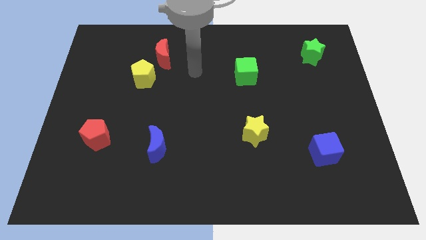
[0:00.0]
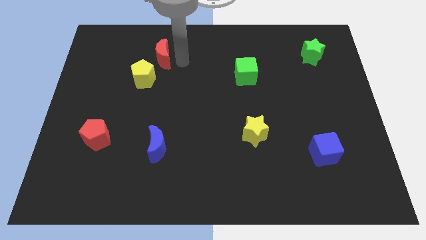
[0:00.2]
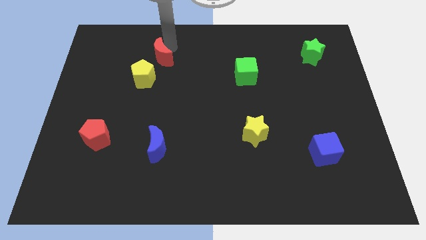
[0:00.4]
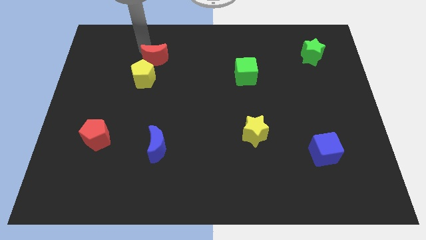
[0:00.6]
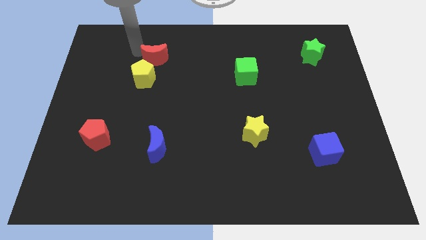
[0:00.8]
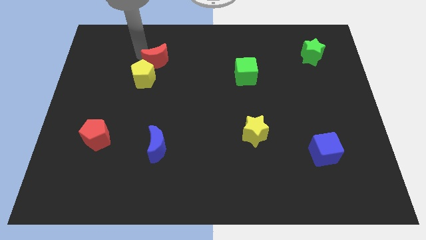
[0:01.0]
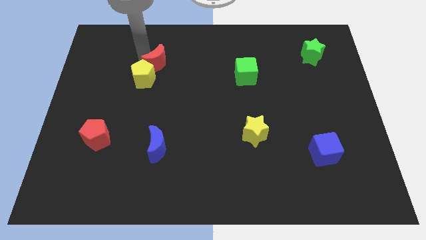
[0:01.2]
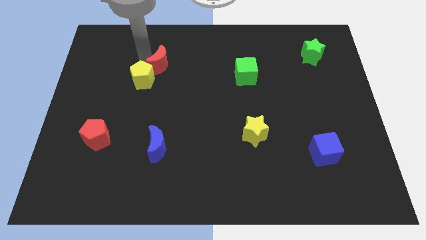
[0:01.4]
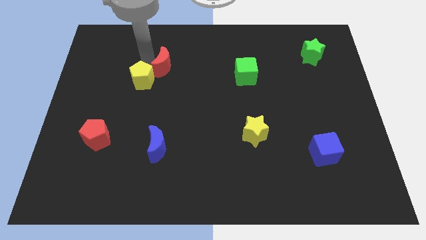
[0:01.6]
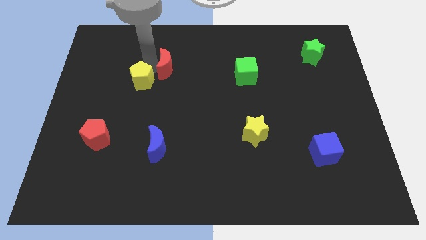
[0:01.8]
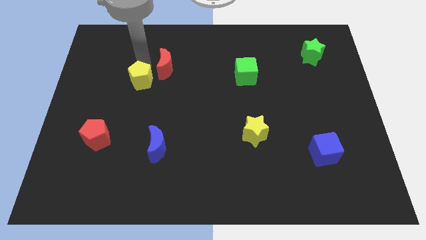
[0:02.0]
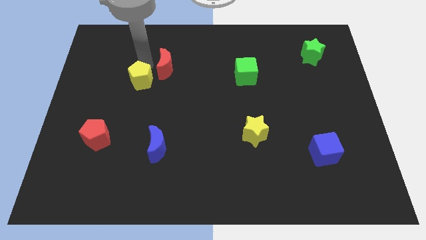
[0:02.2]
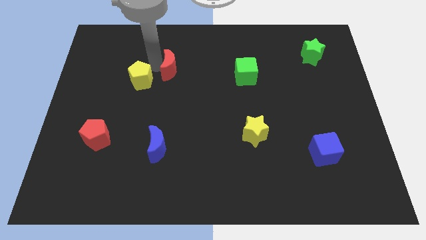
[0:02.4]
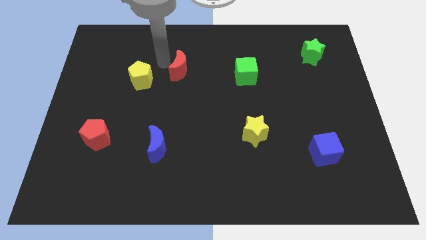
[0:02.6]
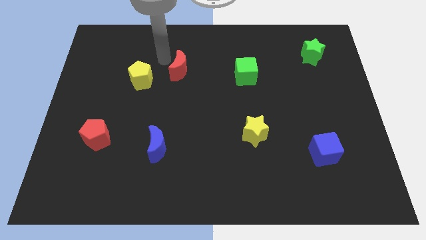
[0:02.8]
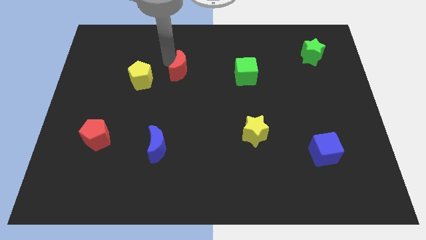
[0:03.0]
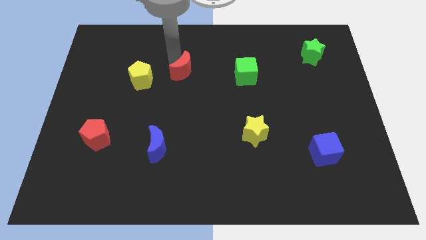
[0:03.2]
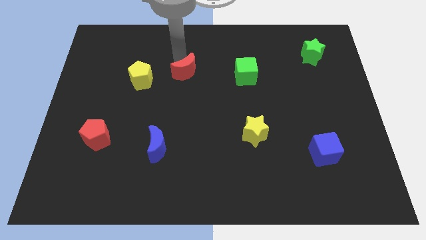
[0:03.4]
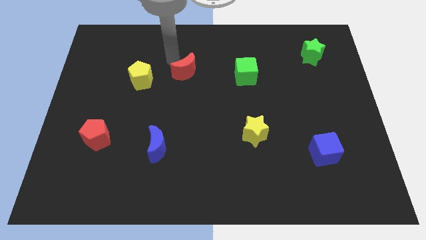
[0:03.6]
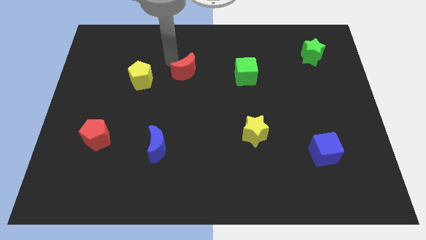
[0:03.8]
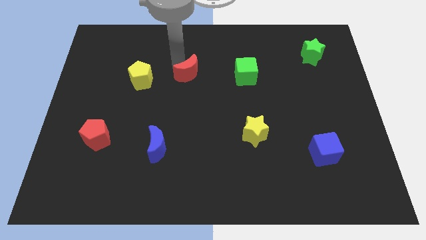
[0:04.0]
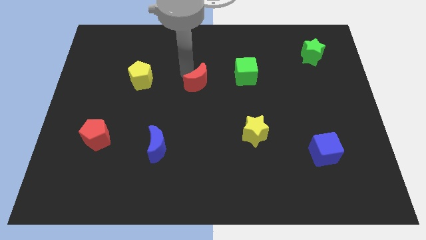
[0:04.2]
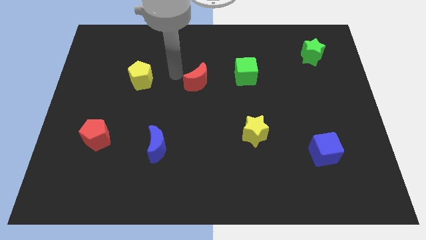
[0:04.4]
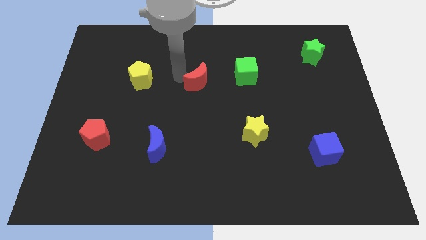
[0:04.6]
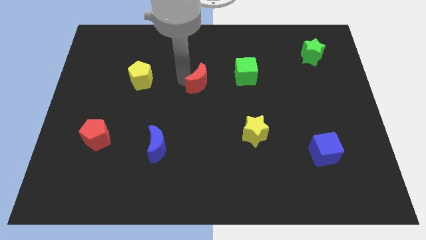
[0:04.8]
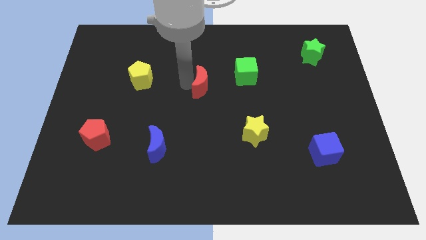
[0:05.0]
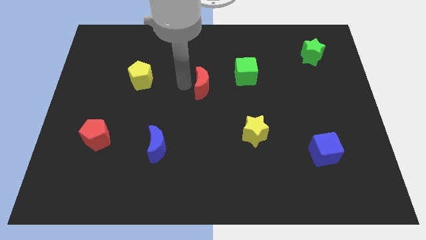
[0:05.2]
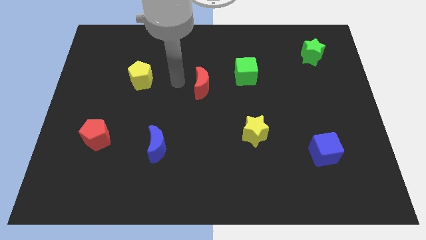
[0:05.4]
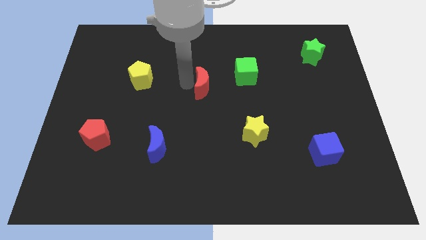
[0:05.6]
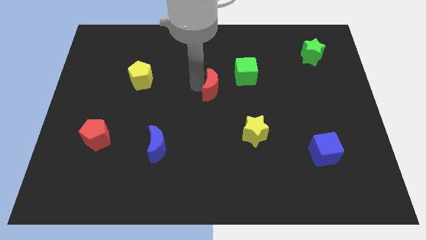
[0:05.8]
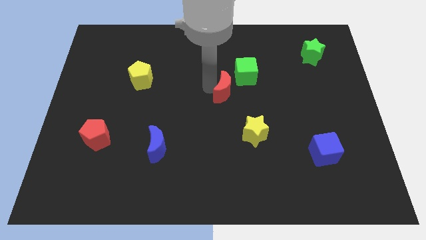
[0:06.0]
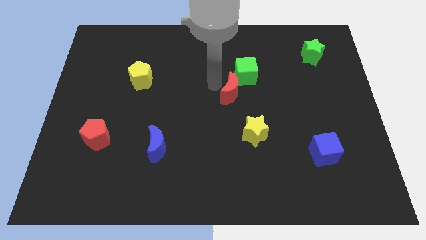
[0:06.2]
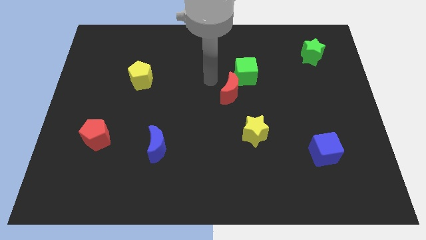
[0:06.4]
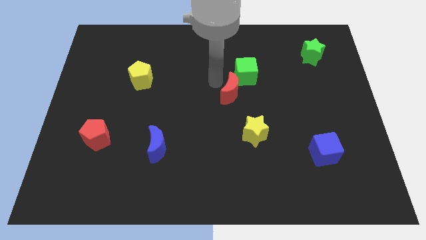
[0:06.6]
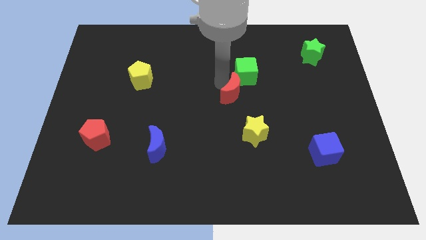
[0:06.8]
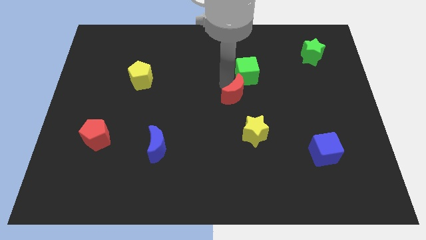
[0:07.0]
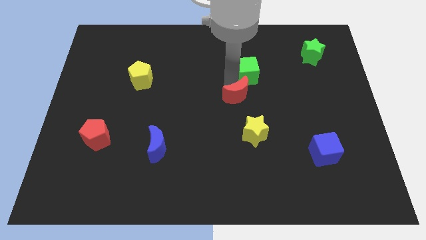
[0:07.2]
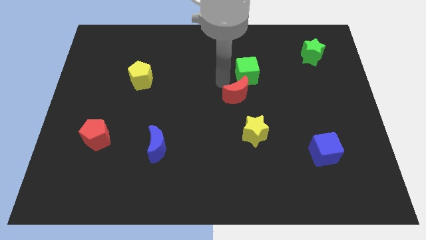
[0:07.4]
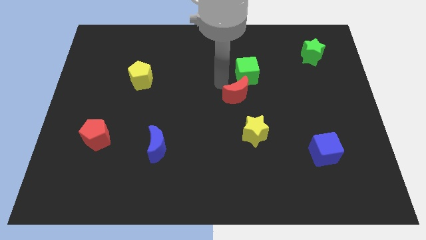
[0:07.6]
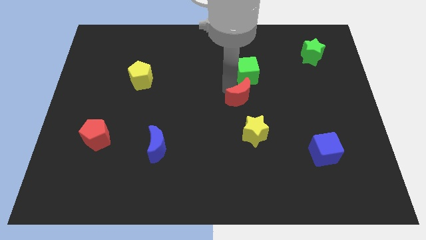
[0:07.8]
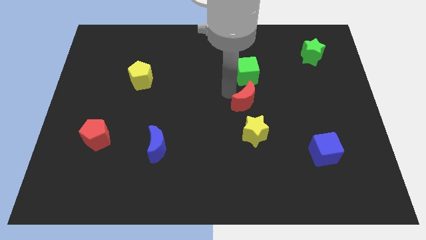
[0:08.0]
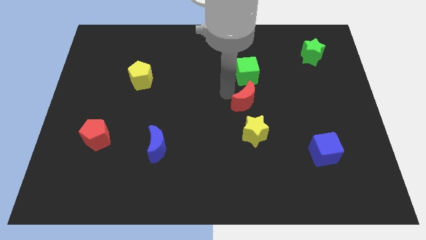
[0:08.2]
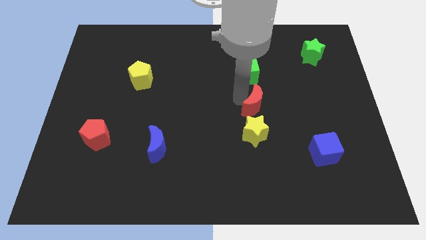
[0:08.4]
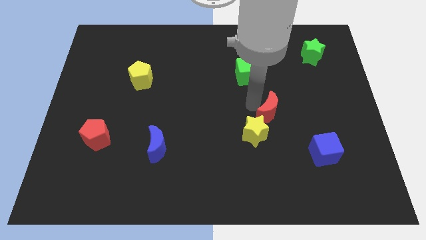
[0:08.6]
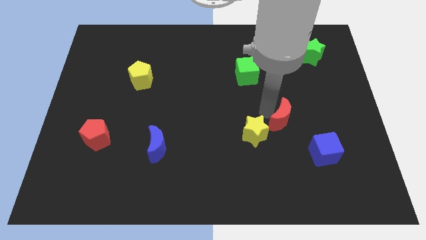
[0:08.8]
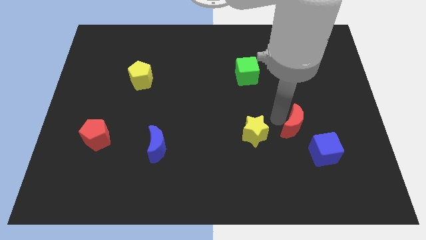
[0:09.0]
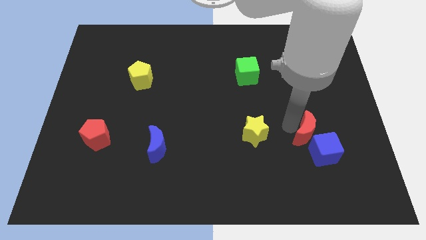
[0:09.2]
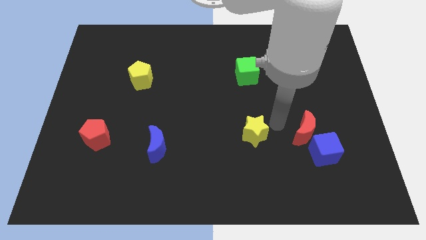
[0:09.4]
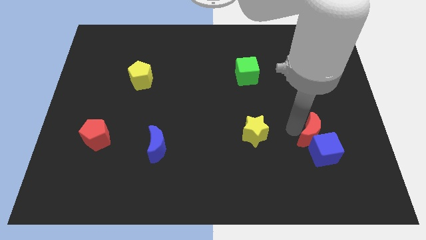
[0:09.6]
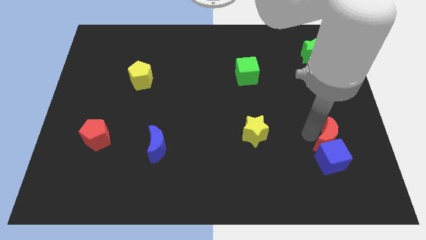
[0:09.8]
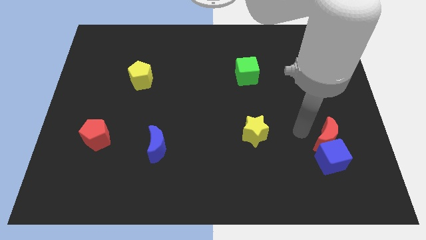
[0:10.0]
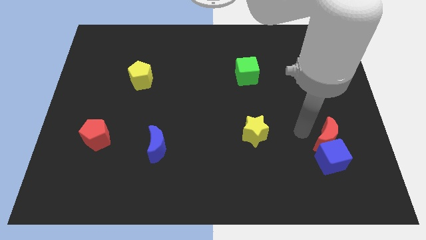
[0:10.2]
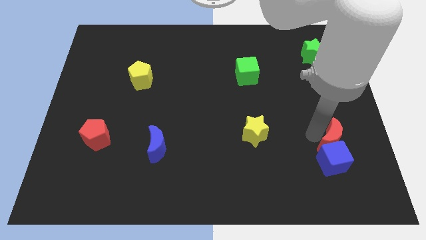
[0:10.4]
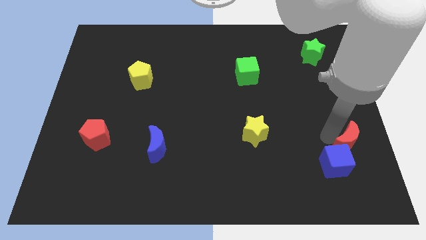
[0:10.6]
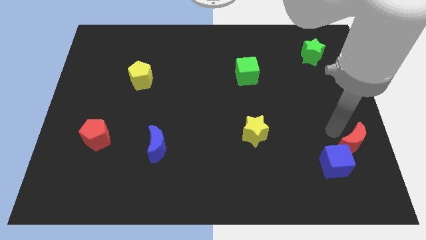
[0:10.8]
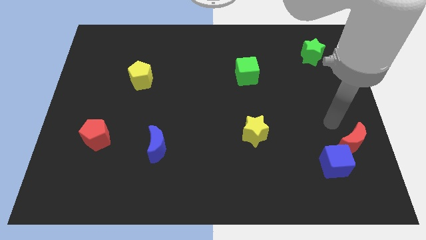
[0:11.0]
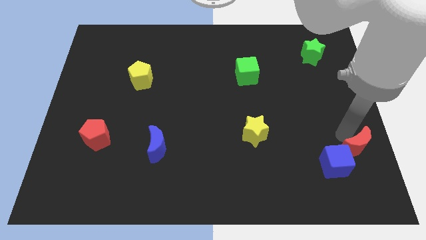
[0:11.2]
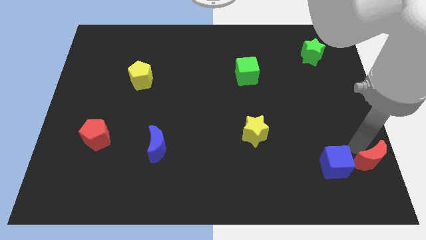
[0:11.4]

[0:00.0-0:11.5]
put the red moon to the lower right corner

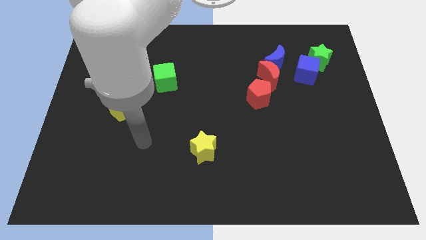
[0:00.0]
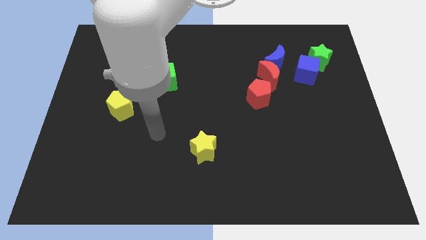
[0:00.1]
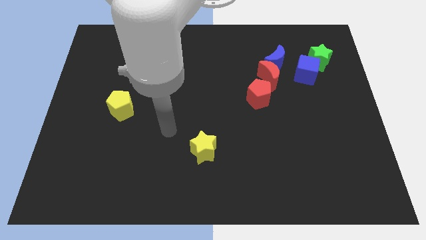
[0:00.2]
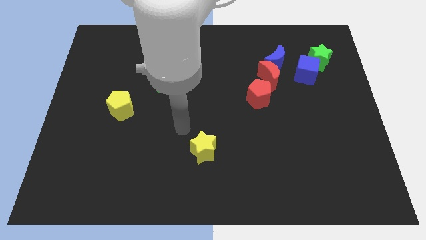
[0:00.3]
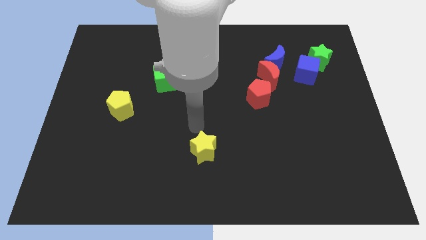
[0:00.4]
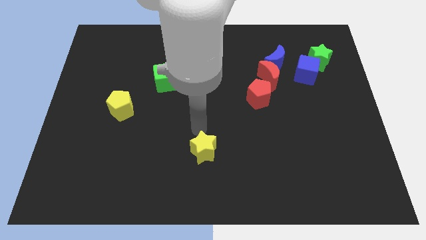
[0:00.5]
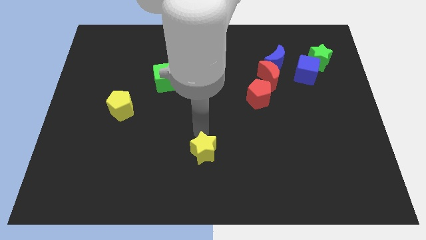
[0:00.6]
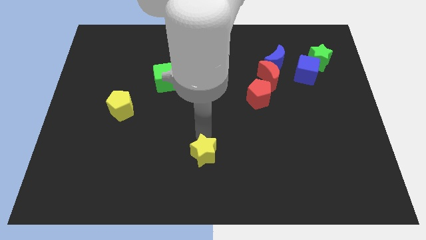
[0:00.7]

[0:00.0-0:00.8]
slide the yellow star to the bottom side
